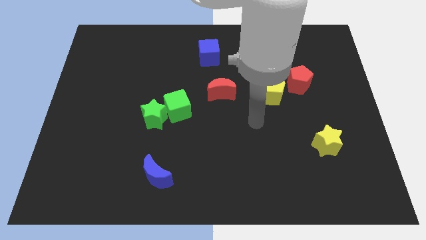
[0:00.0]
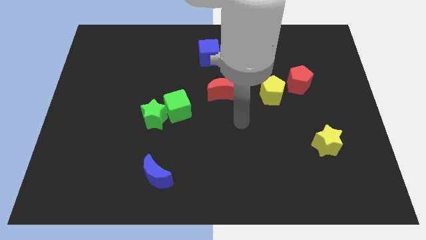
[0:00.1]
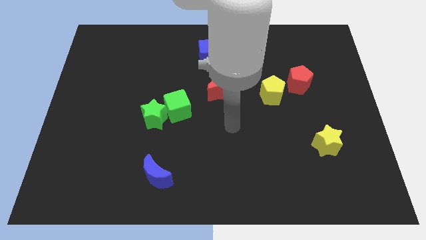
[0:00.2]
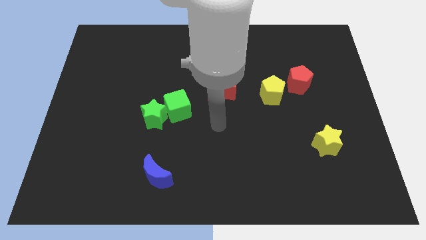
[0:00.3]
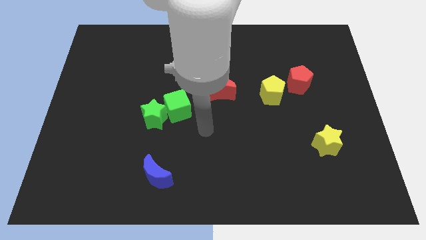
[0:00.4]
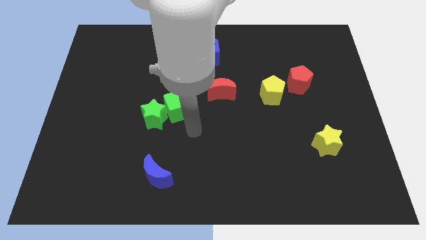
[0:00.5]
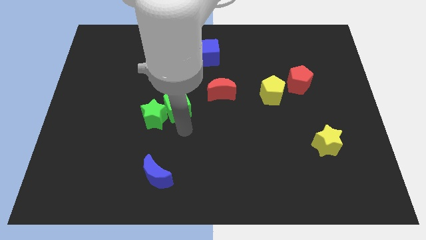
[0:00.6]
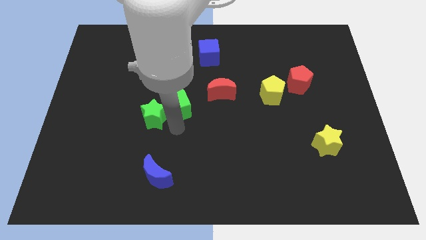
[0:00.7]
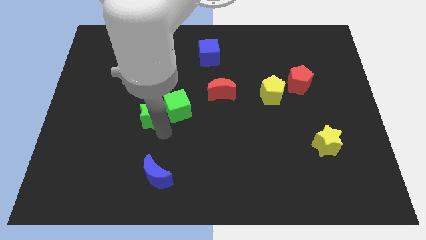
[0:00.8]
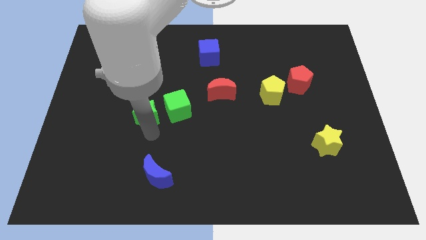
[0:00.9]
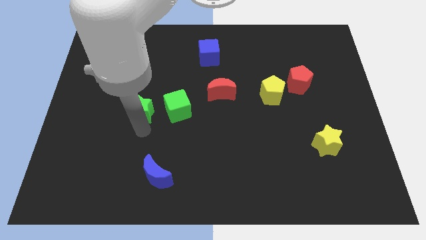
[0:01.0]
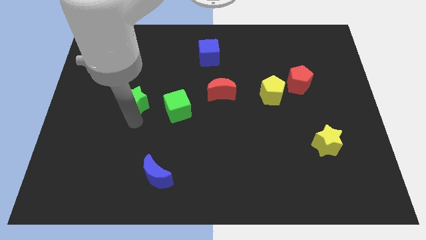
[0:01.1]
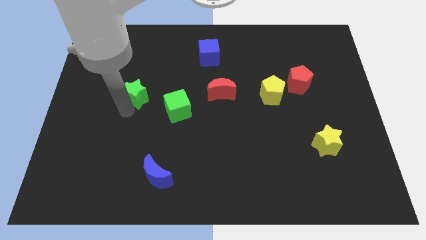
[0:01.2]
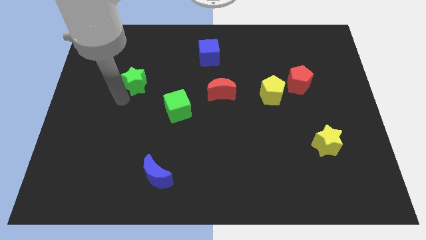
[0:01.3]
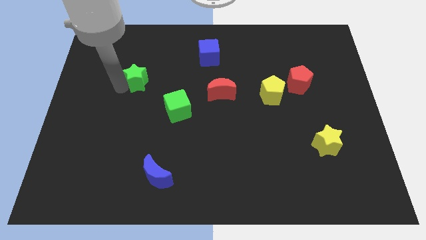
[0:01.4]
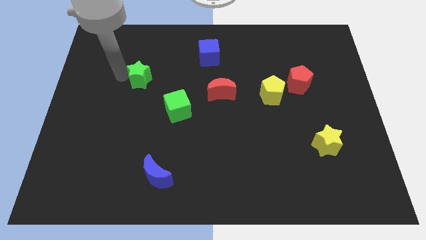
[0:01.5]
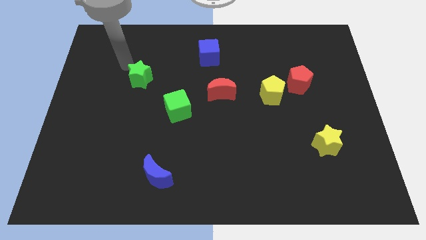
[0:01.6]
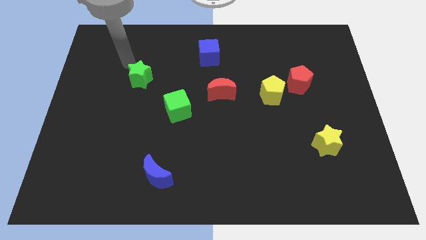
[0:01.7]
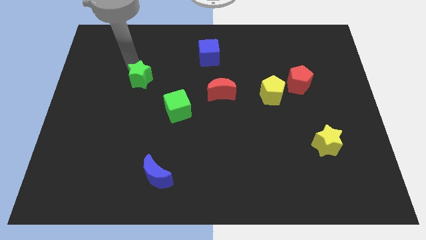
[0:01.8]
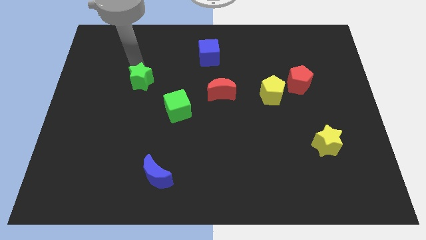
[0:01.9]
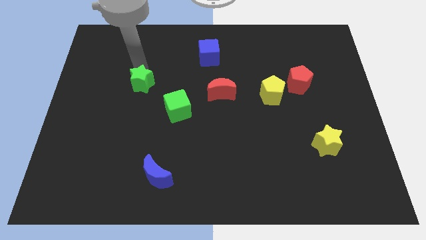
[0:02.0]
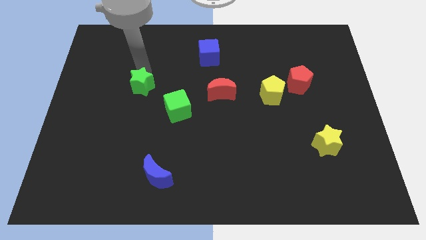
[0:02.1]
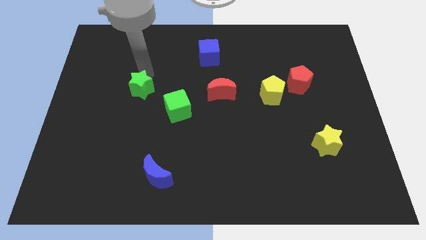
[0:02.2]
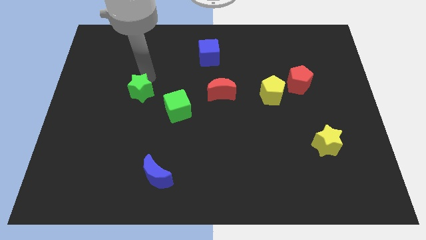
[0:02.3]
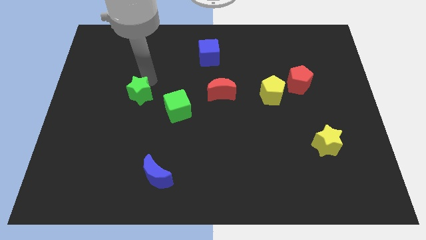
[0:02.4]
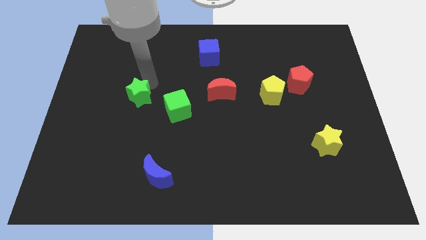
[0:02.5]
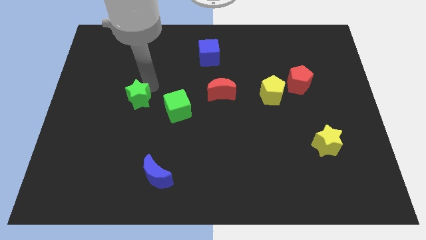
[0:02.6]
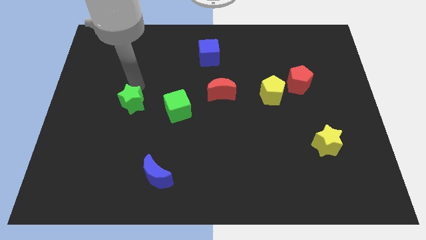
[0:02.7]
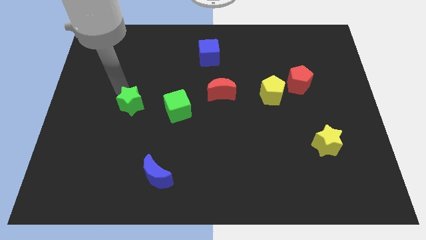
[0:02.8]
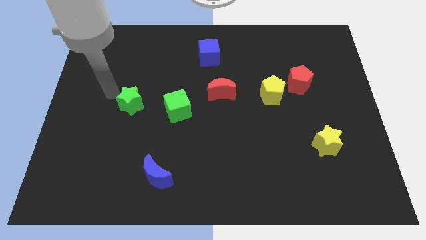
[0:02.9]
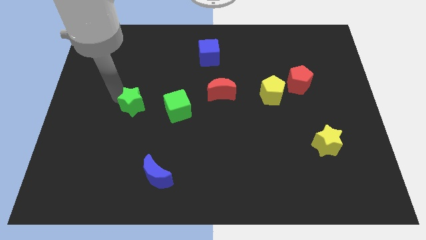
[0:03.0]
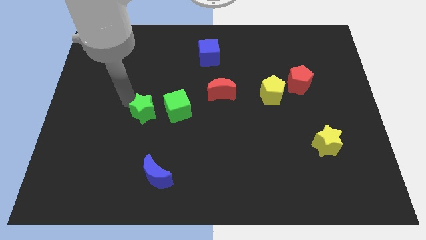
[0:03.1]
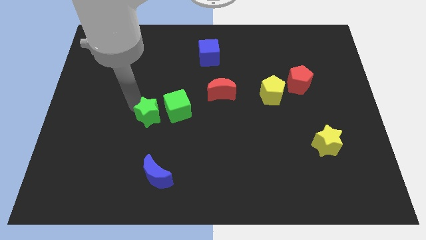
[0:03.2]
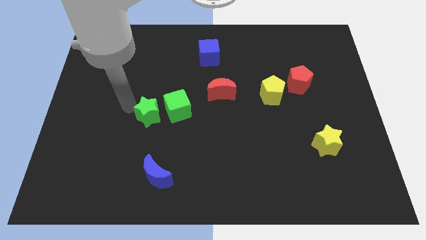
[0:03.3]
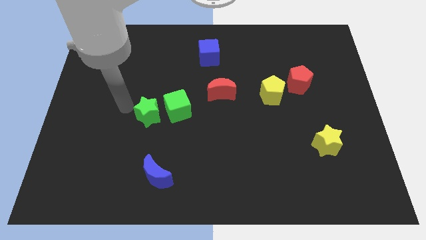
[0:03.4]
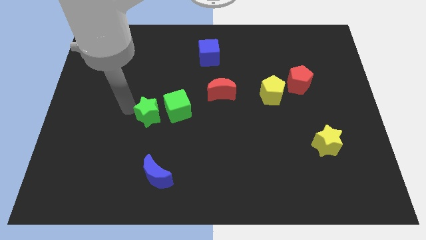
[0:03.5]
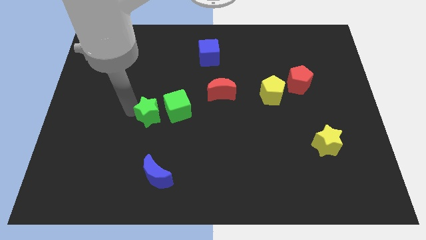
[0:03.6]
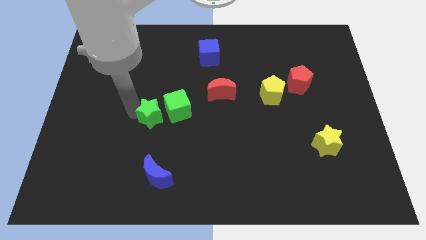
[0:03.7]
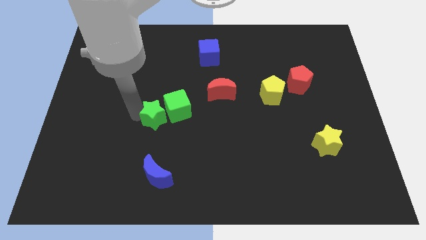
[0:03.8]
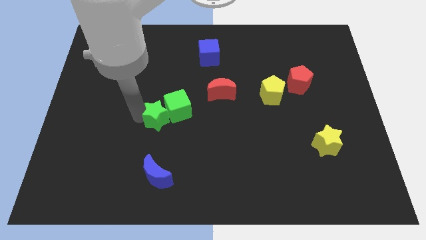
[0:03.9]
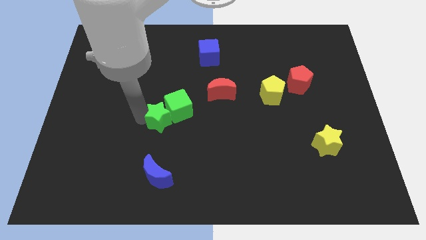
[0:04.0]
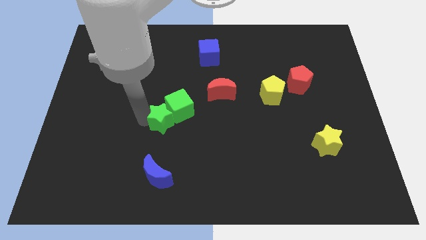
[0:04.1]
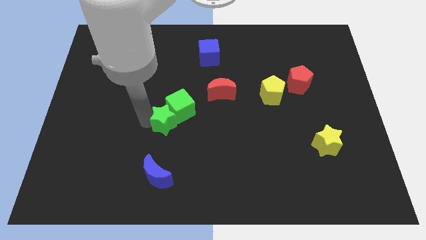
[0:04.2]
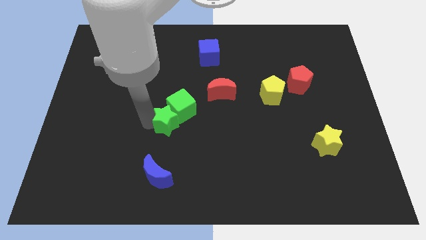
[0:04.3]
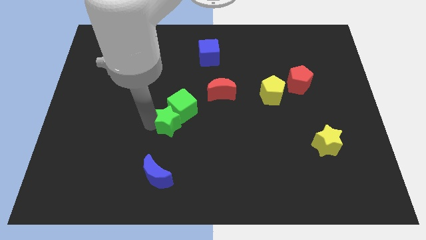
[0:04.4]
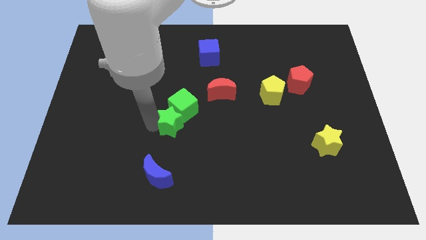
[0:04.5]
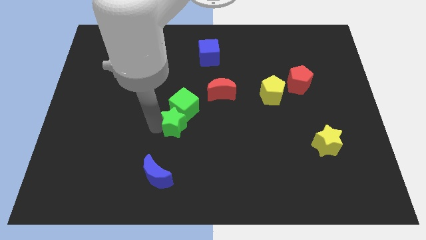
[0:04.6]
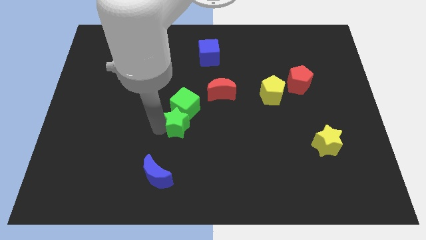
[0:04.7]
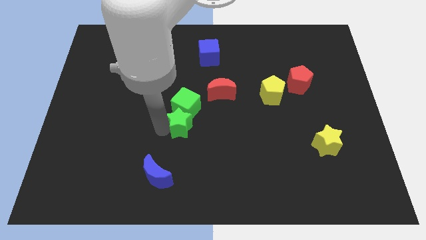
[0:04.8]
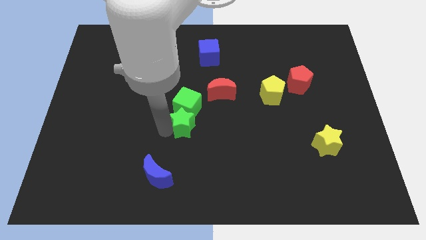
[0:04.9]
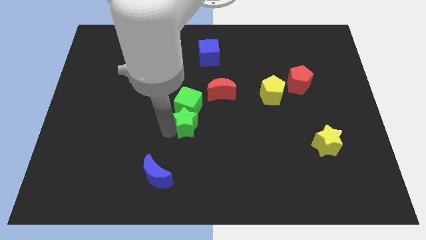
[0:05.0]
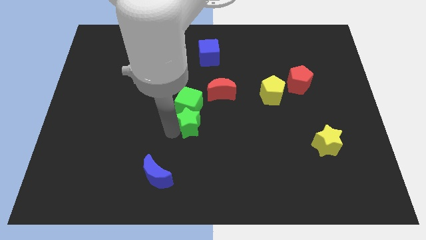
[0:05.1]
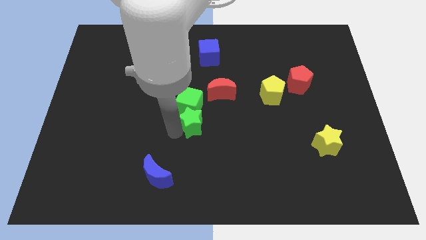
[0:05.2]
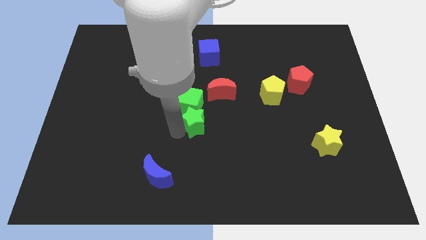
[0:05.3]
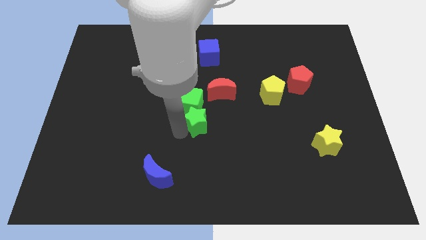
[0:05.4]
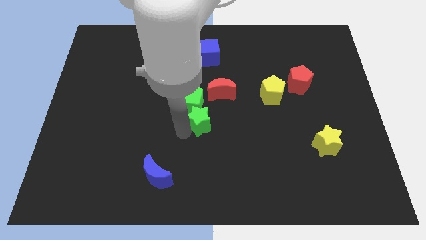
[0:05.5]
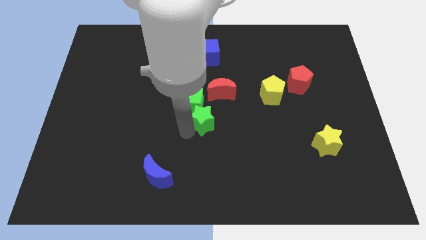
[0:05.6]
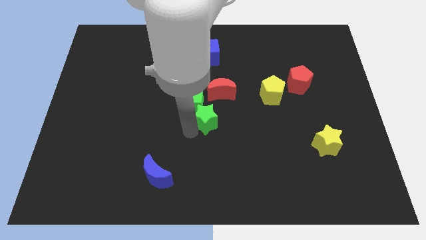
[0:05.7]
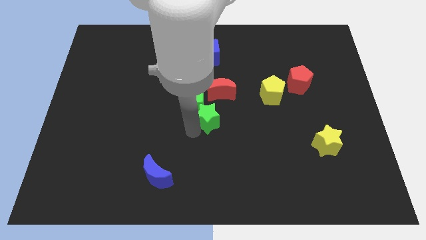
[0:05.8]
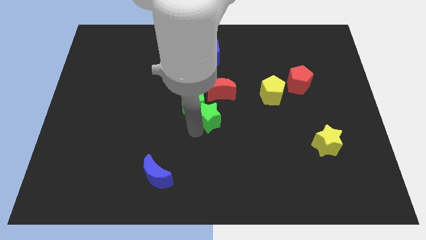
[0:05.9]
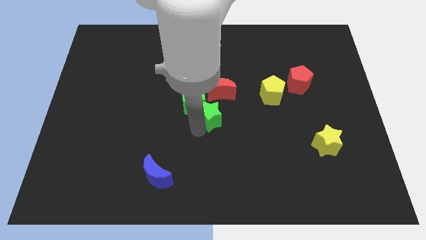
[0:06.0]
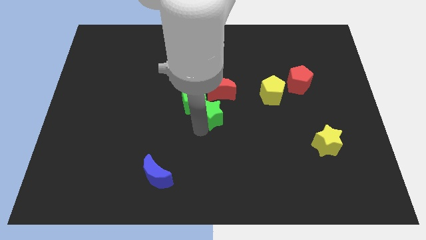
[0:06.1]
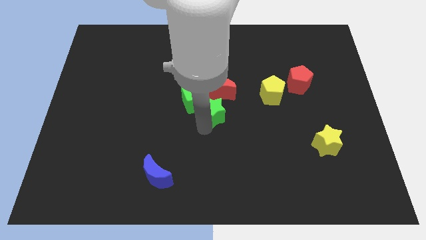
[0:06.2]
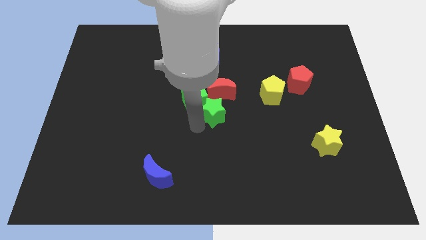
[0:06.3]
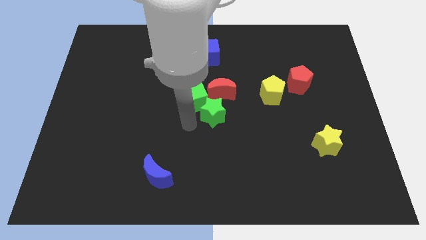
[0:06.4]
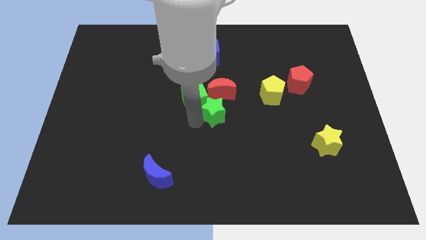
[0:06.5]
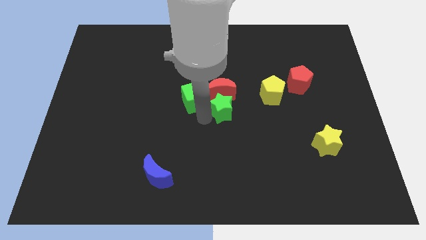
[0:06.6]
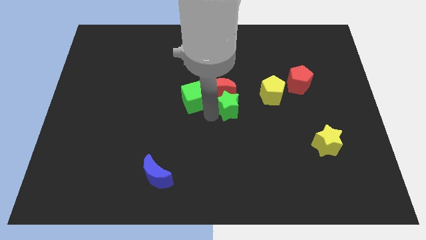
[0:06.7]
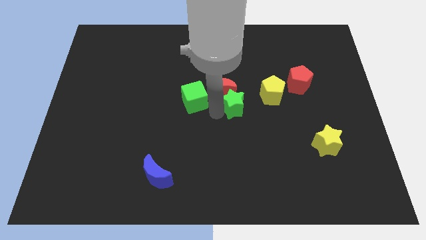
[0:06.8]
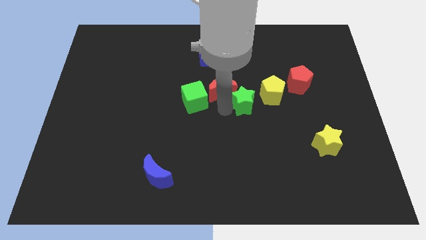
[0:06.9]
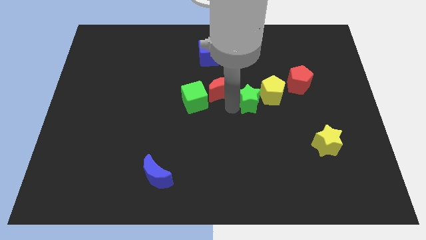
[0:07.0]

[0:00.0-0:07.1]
move the green star to the yellow pentagon
